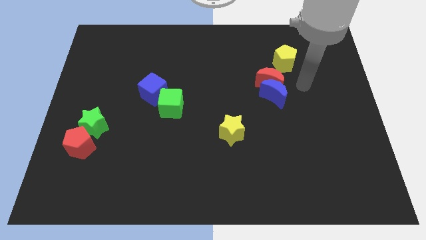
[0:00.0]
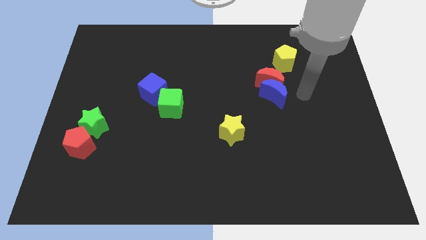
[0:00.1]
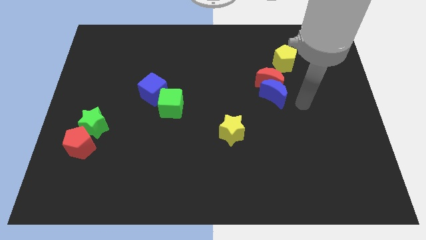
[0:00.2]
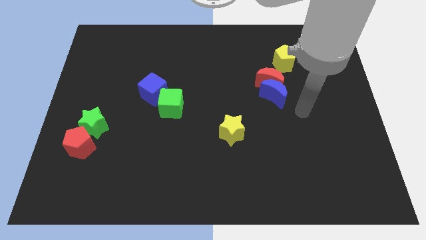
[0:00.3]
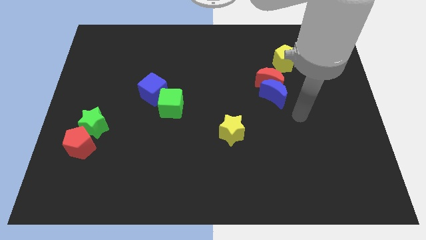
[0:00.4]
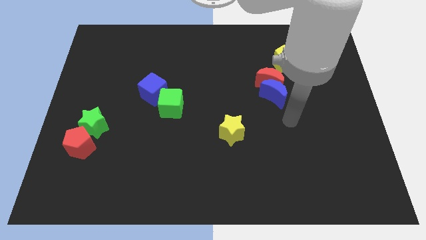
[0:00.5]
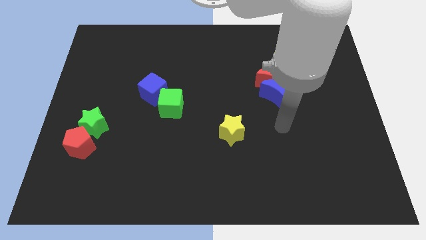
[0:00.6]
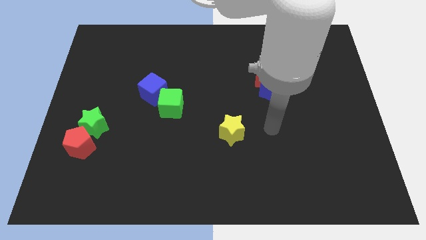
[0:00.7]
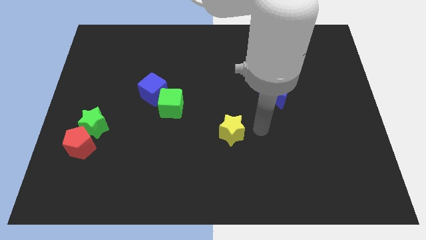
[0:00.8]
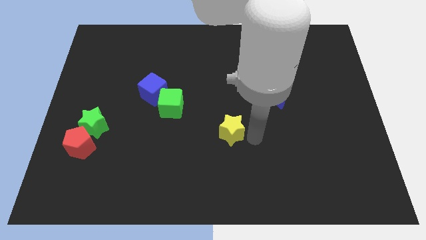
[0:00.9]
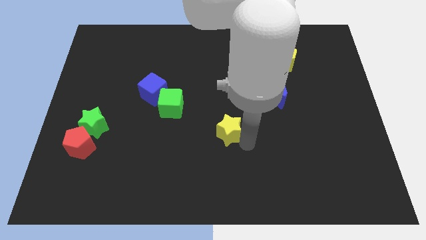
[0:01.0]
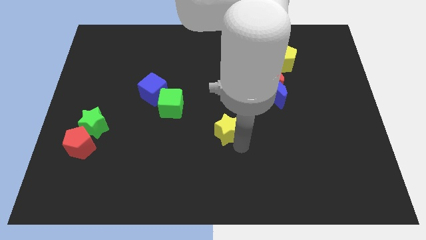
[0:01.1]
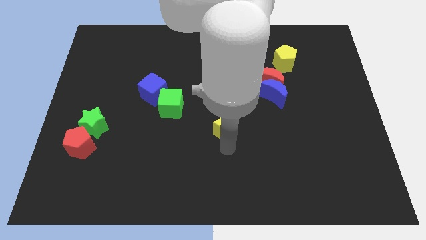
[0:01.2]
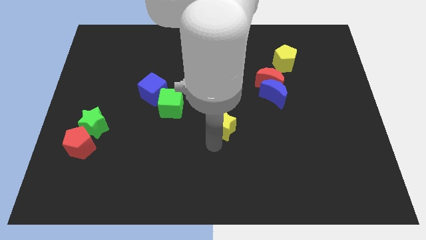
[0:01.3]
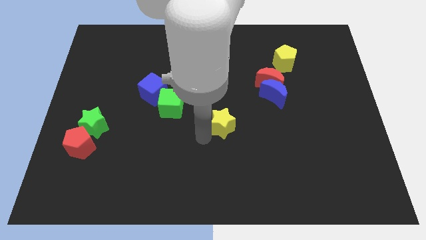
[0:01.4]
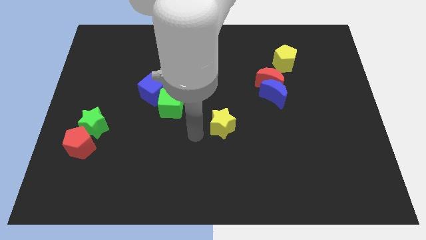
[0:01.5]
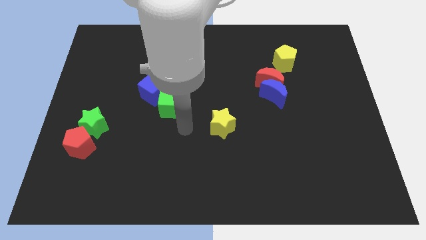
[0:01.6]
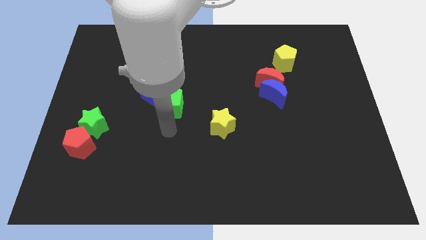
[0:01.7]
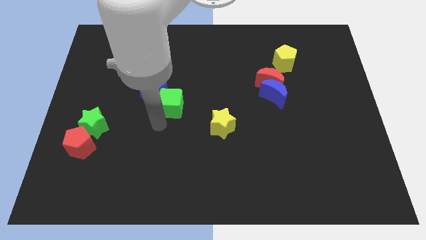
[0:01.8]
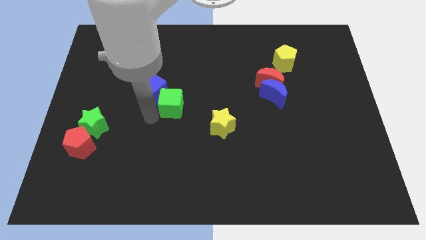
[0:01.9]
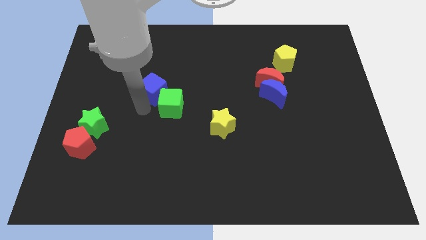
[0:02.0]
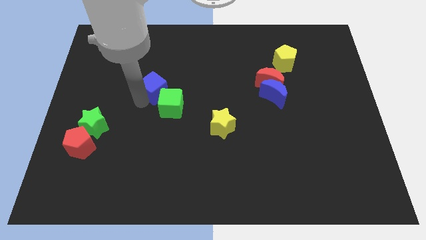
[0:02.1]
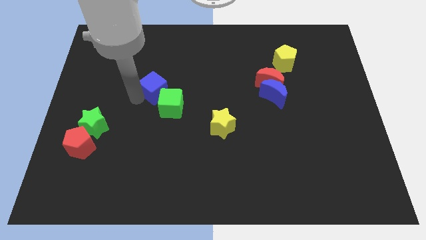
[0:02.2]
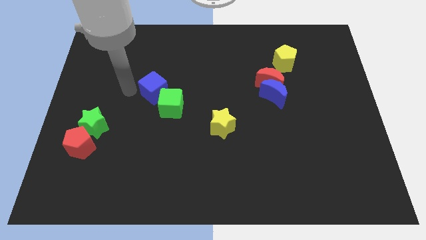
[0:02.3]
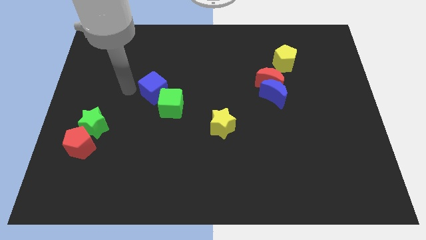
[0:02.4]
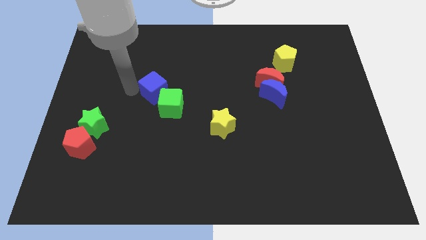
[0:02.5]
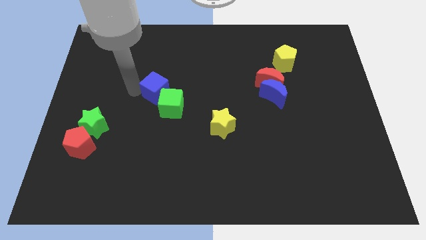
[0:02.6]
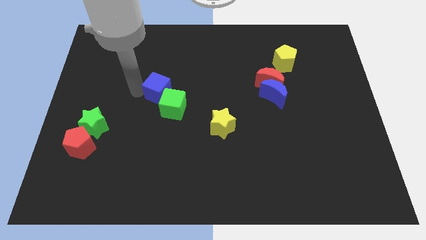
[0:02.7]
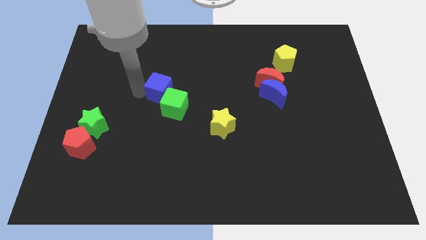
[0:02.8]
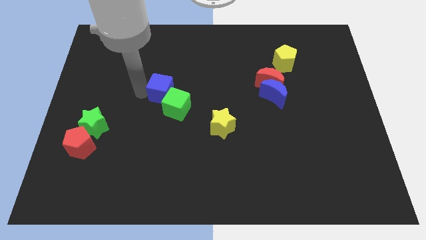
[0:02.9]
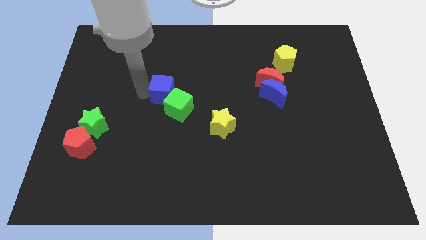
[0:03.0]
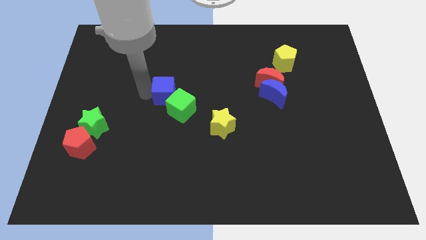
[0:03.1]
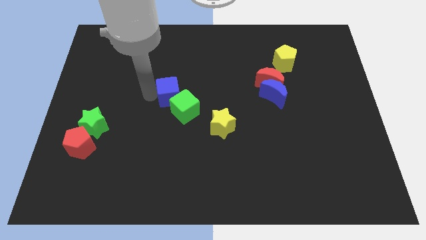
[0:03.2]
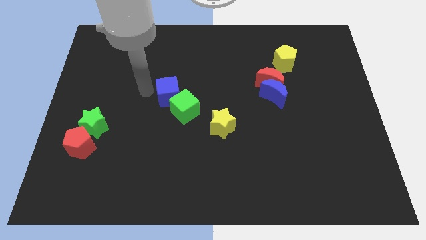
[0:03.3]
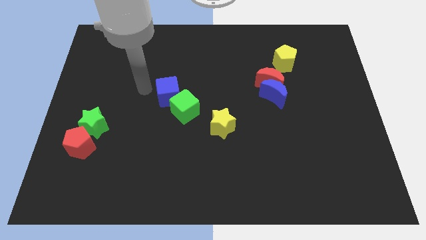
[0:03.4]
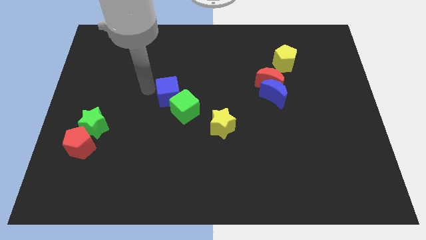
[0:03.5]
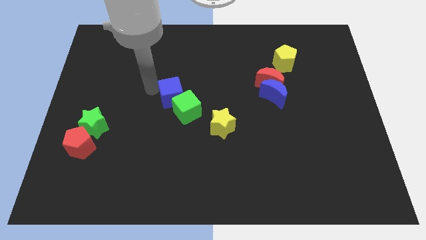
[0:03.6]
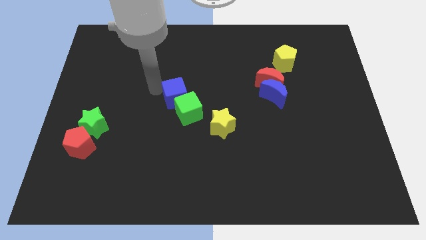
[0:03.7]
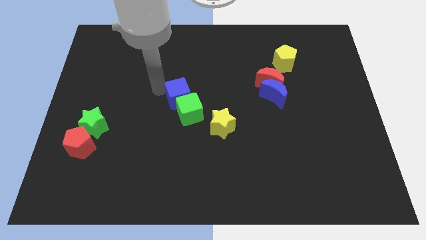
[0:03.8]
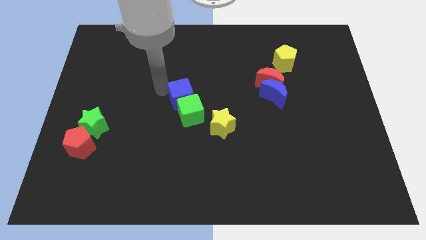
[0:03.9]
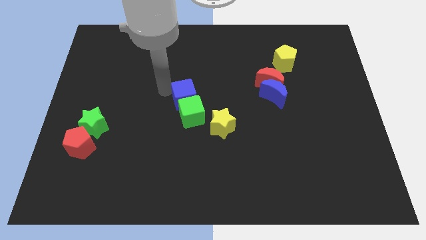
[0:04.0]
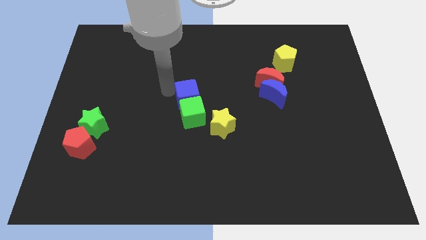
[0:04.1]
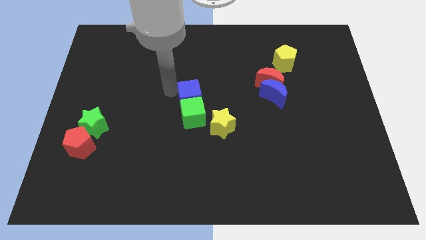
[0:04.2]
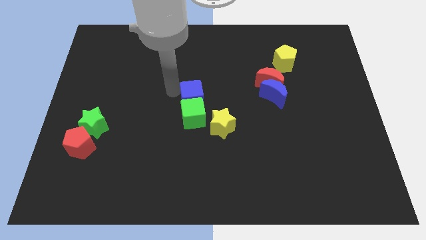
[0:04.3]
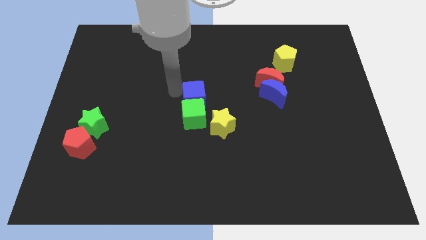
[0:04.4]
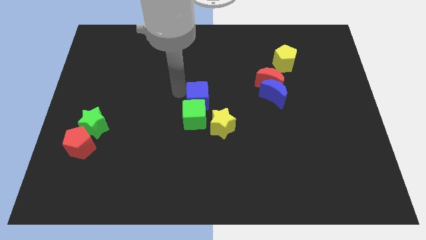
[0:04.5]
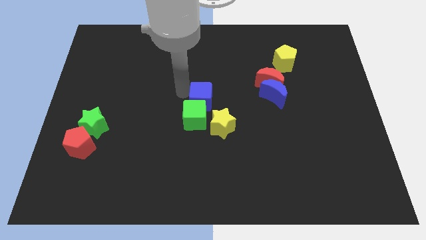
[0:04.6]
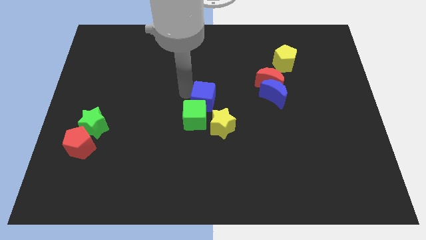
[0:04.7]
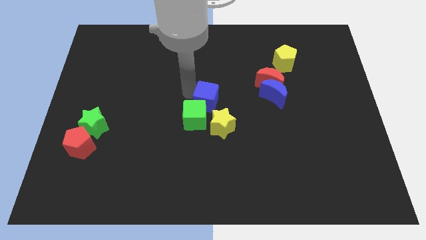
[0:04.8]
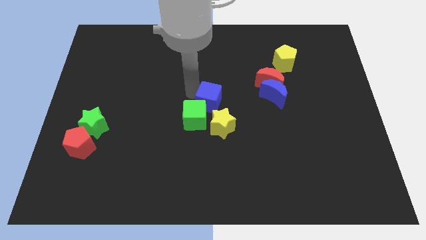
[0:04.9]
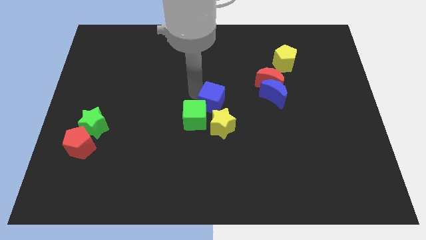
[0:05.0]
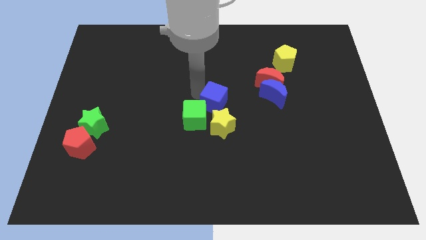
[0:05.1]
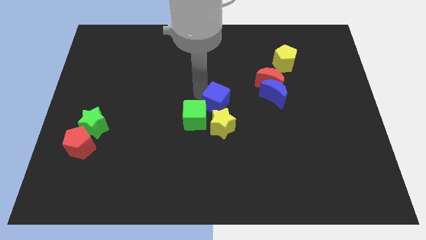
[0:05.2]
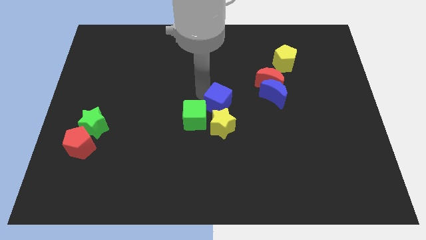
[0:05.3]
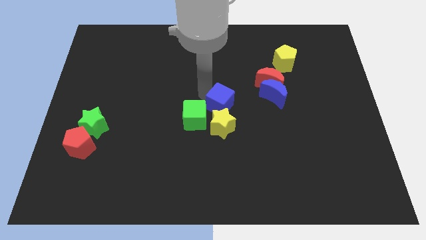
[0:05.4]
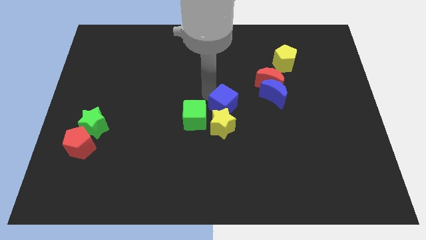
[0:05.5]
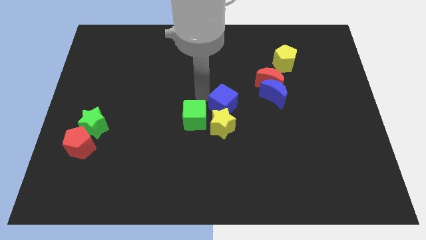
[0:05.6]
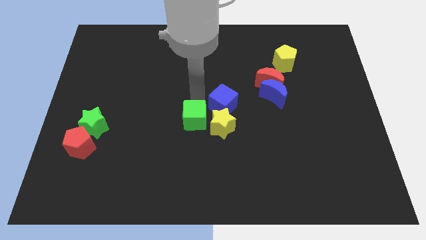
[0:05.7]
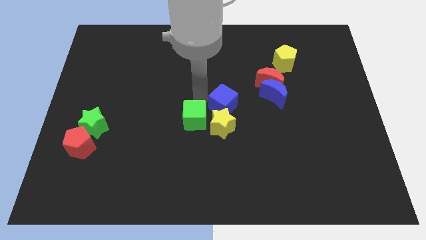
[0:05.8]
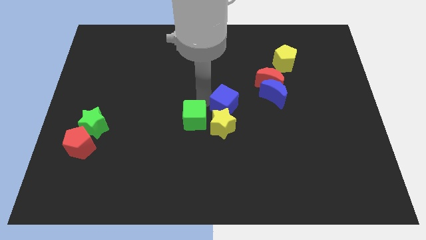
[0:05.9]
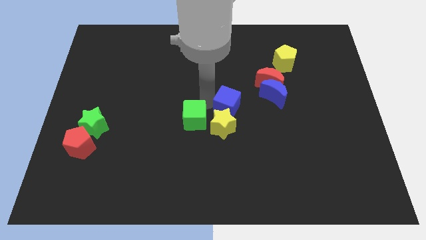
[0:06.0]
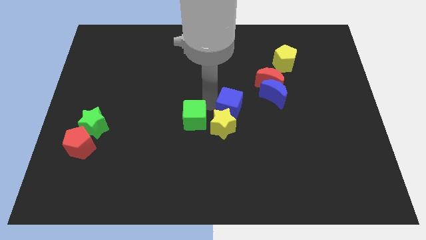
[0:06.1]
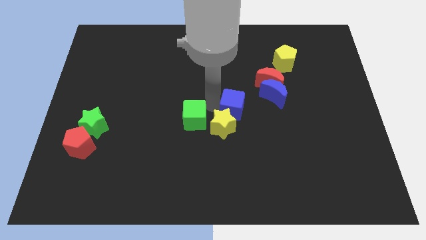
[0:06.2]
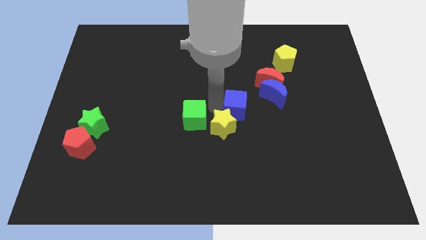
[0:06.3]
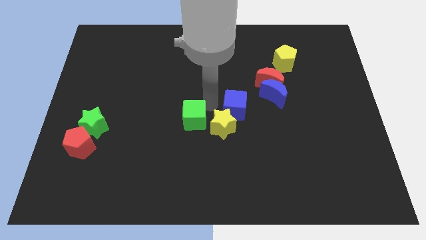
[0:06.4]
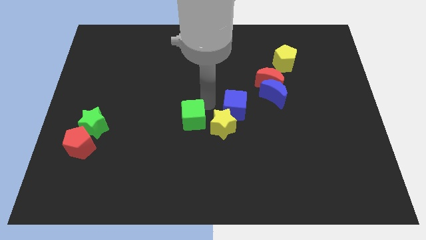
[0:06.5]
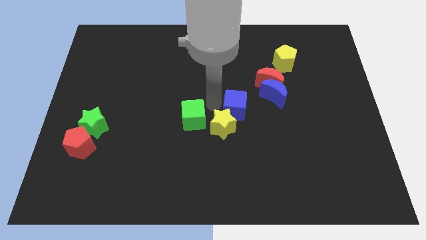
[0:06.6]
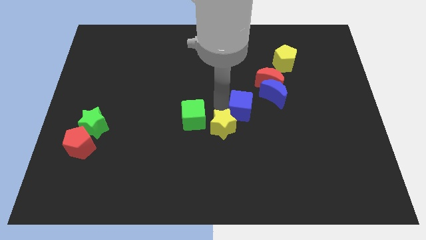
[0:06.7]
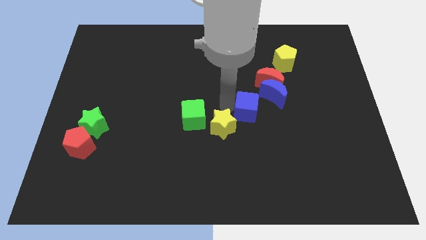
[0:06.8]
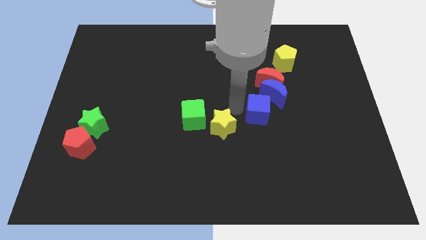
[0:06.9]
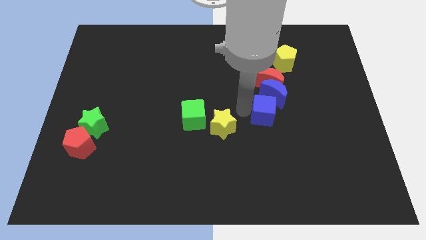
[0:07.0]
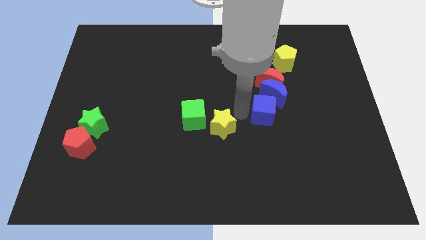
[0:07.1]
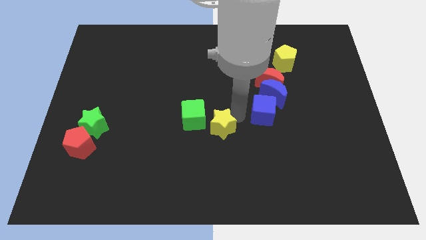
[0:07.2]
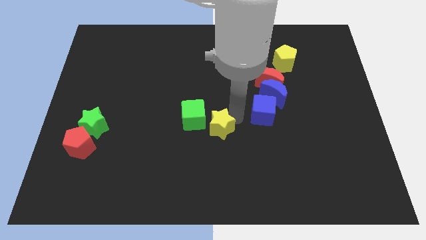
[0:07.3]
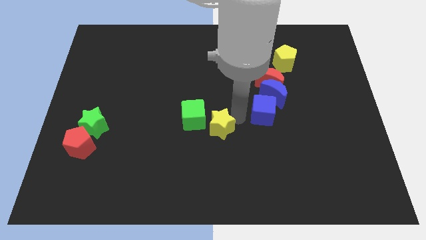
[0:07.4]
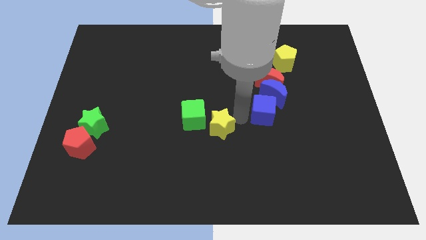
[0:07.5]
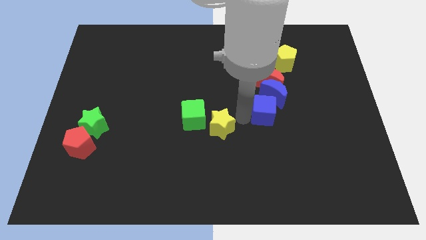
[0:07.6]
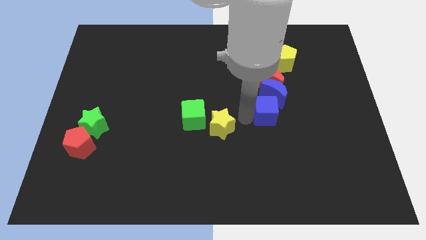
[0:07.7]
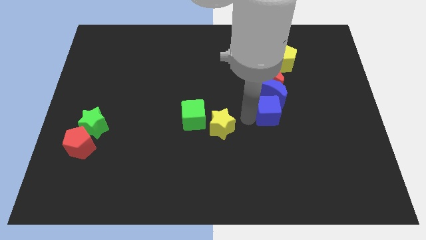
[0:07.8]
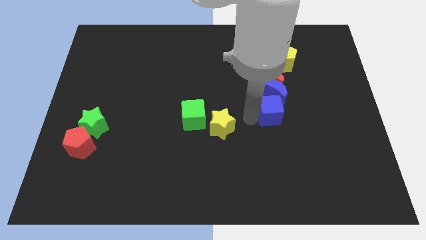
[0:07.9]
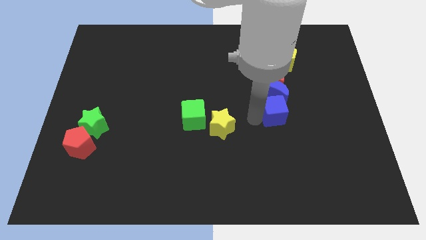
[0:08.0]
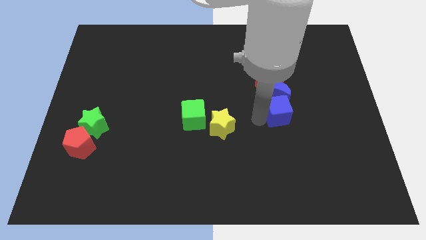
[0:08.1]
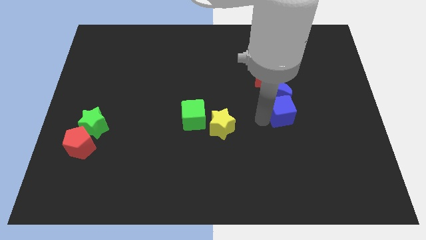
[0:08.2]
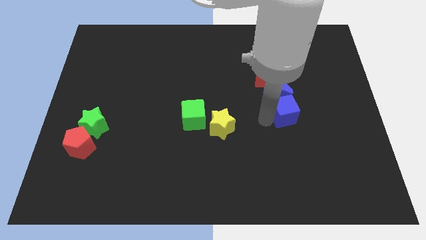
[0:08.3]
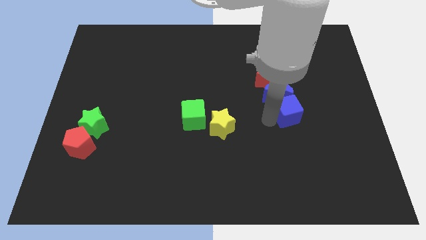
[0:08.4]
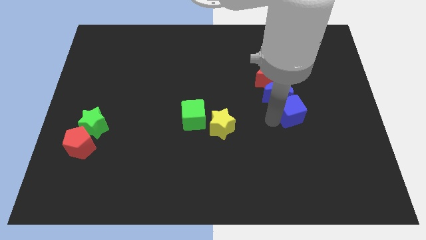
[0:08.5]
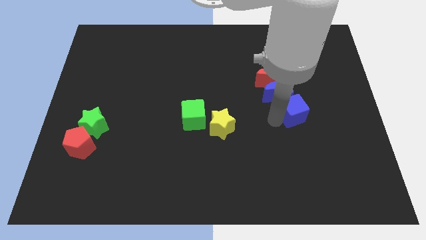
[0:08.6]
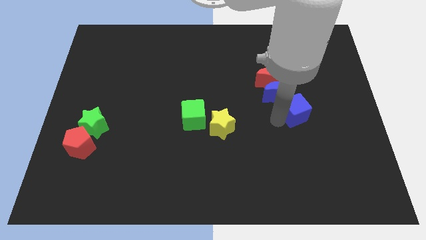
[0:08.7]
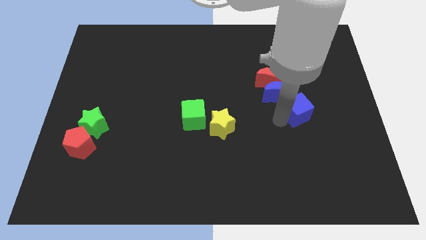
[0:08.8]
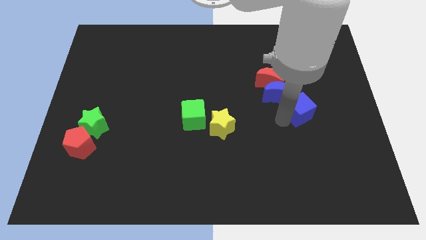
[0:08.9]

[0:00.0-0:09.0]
move the blue cube to the right of the blue moon
